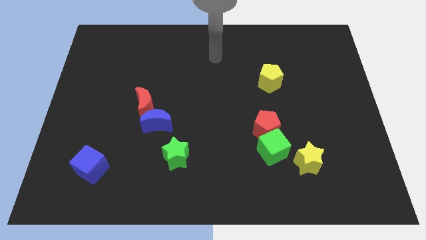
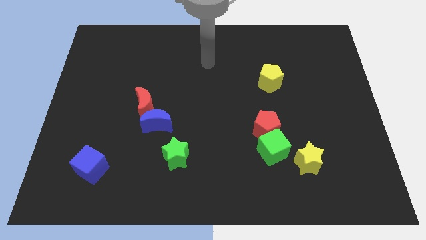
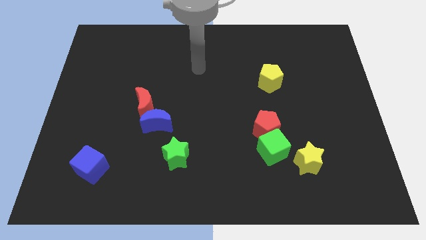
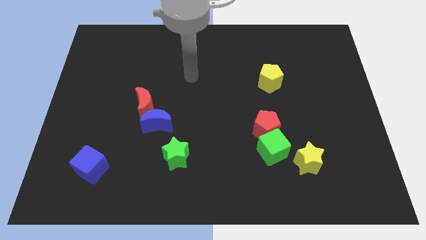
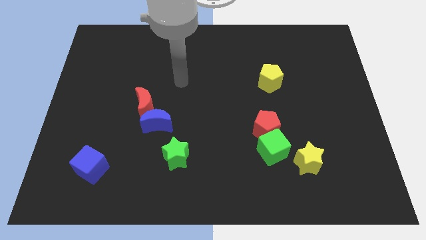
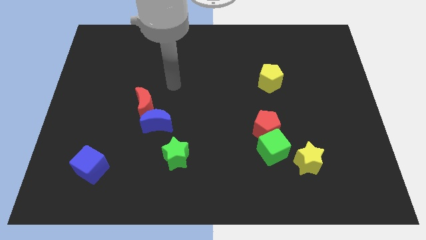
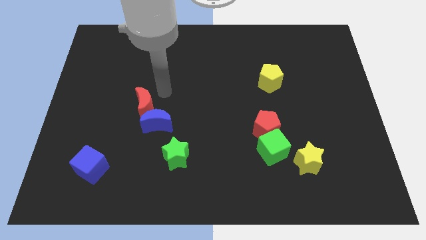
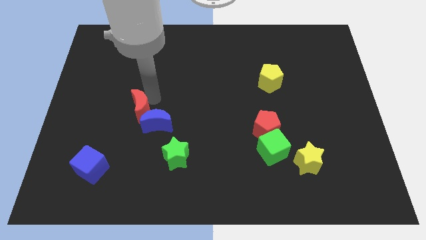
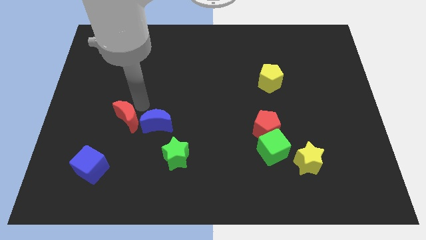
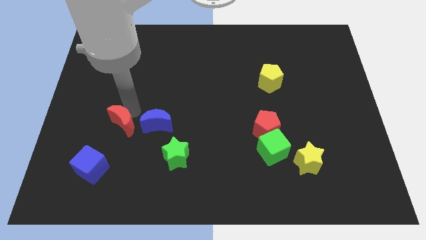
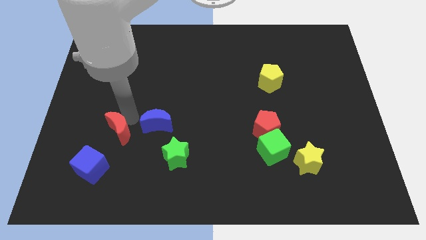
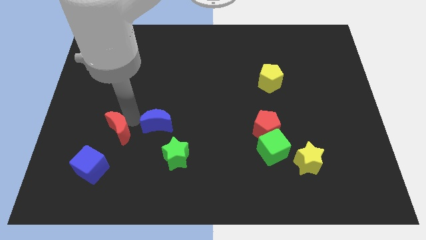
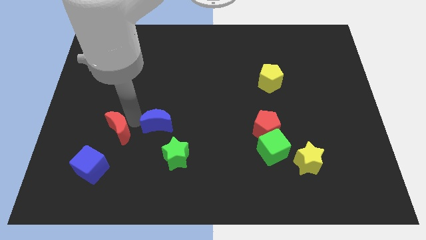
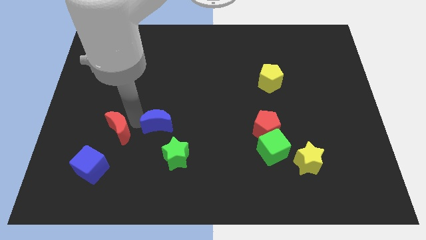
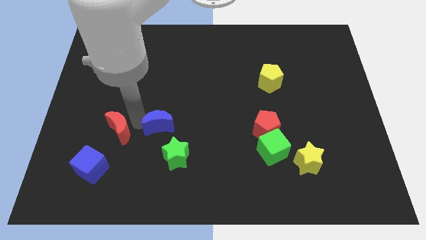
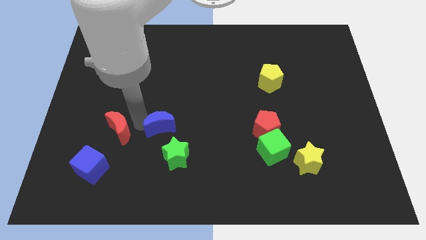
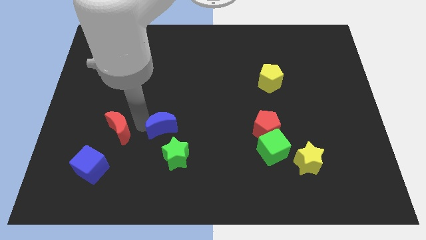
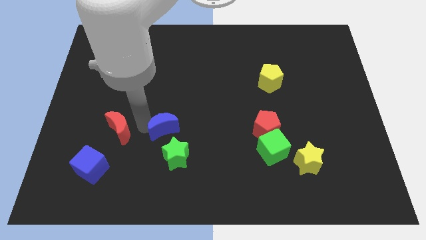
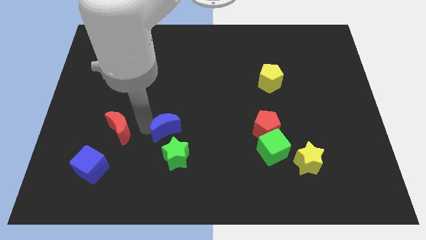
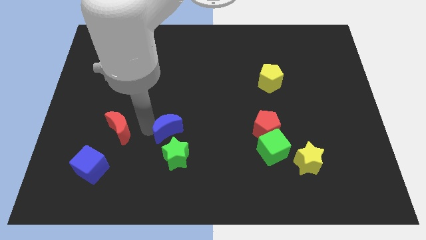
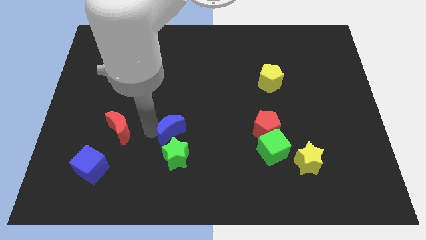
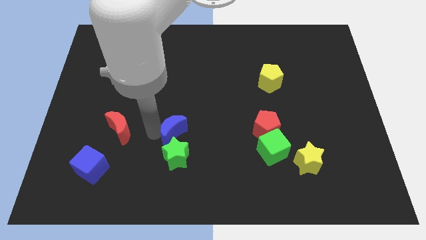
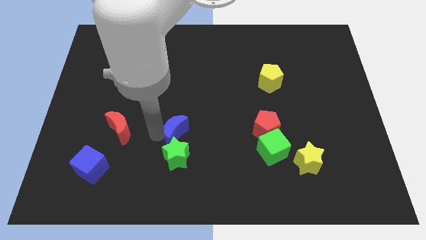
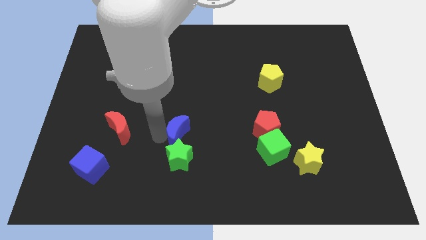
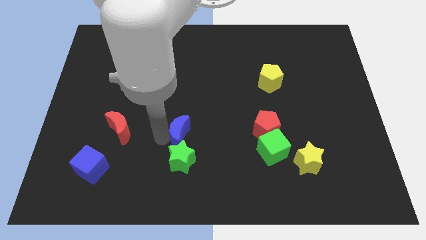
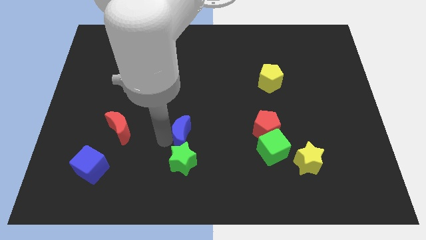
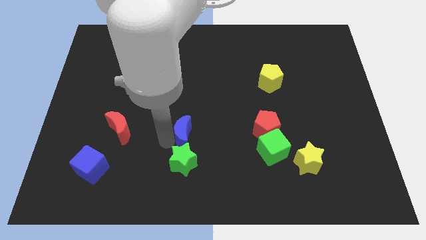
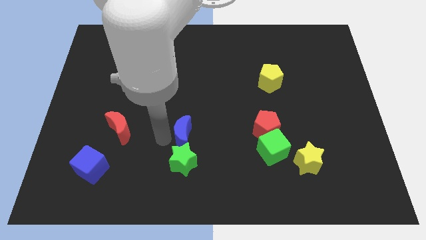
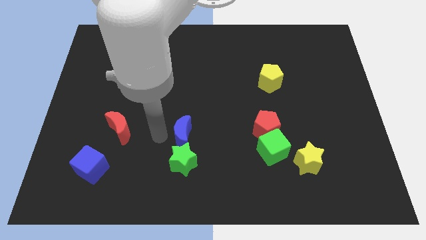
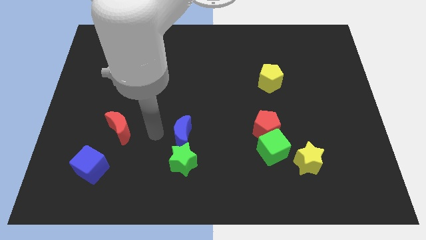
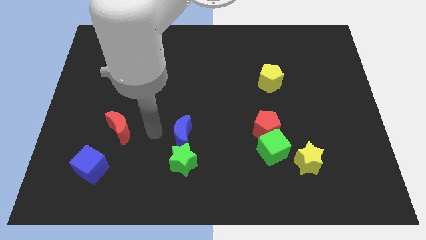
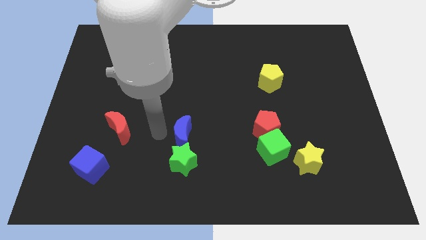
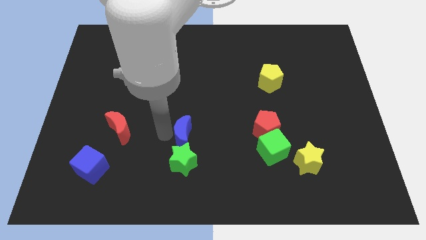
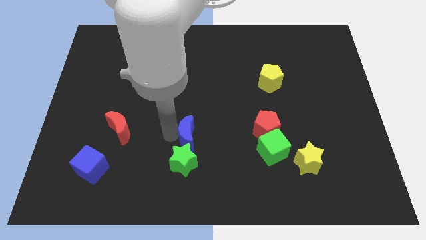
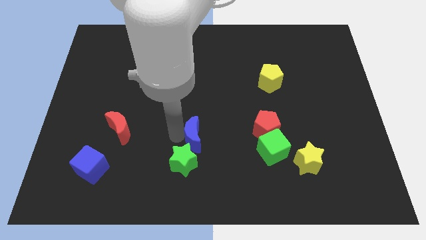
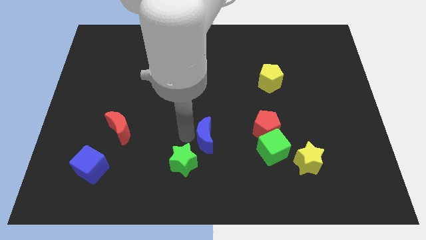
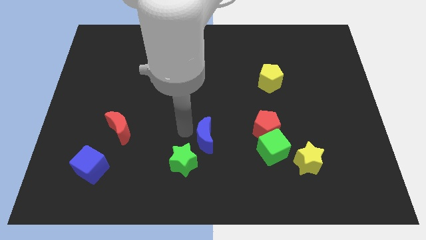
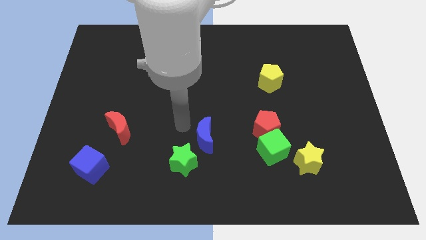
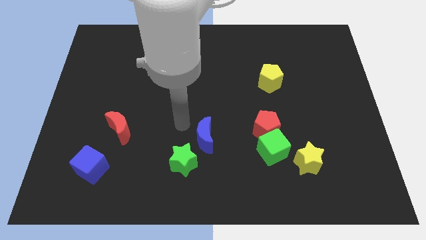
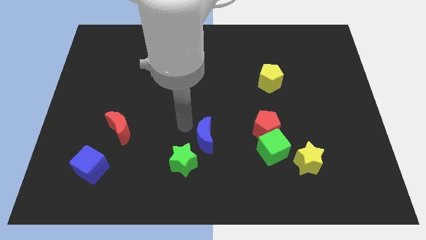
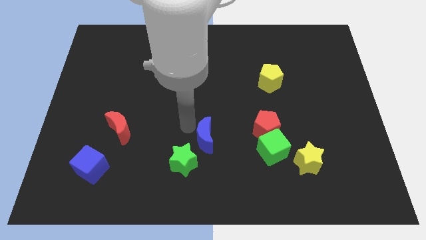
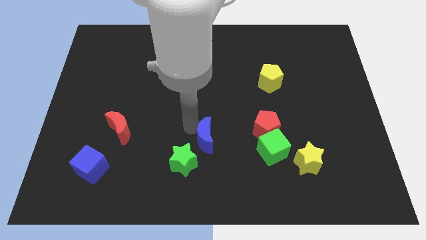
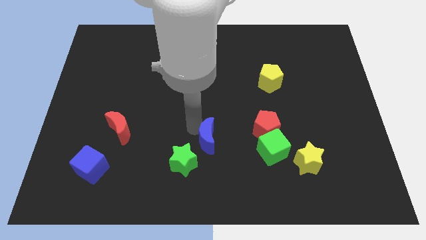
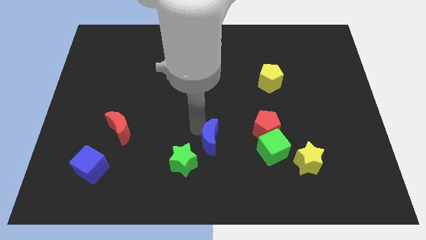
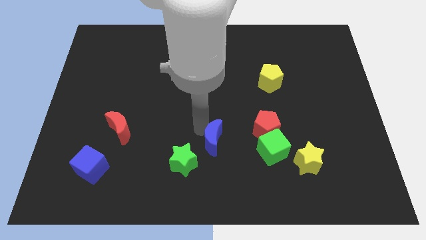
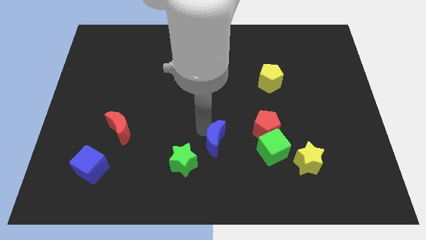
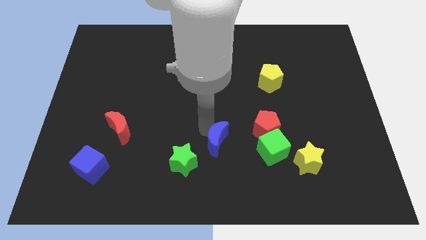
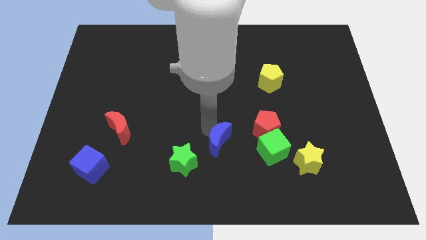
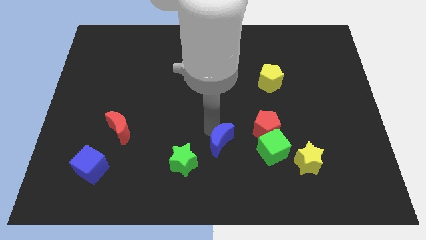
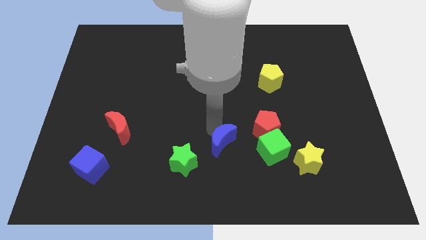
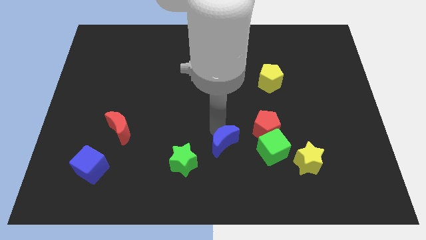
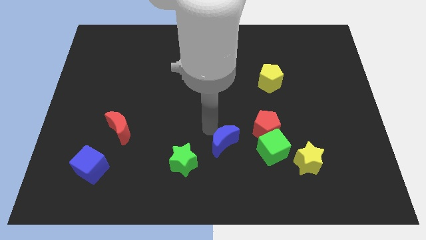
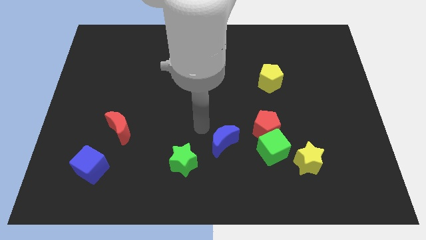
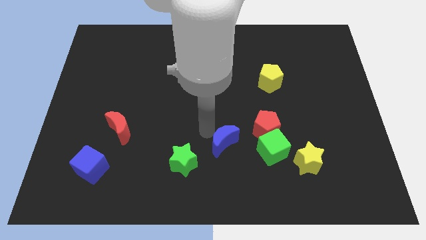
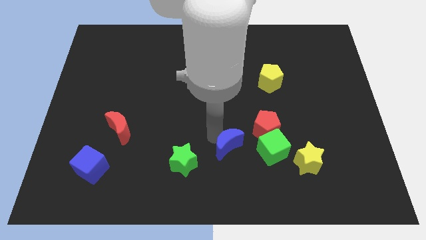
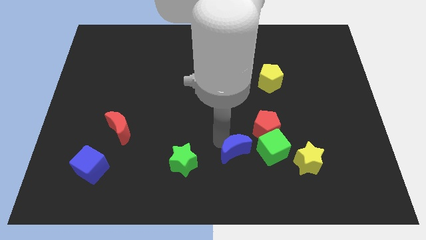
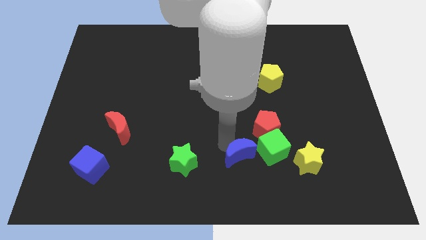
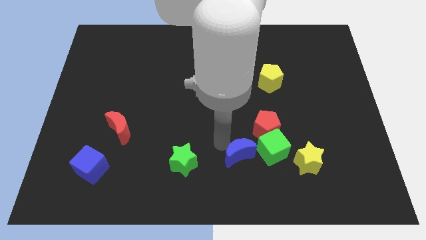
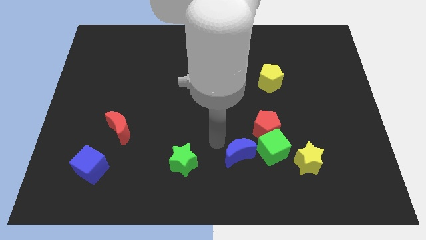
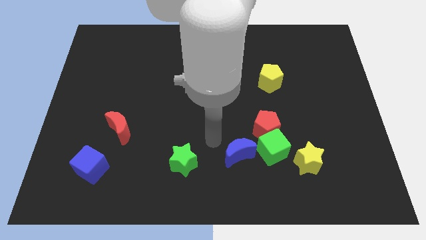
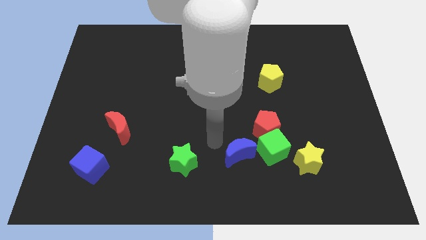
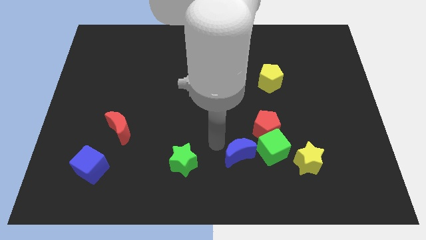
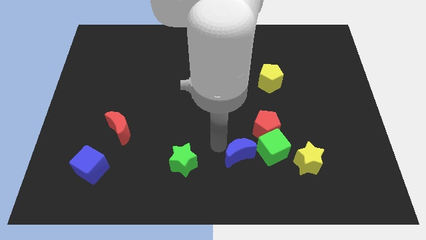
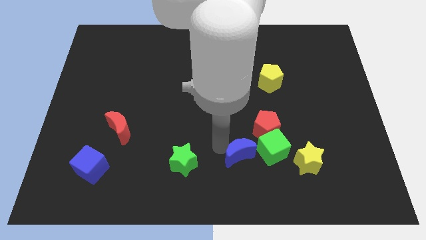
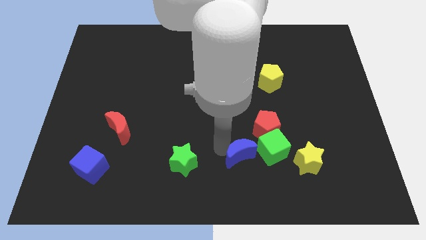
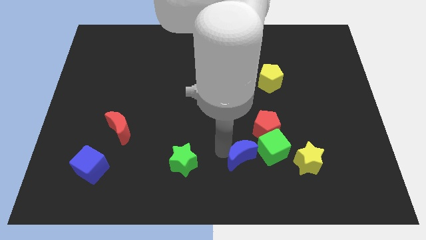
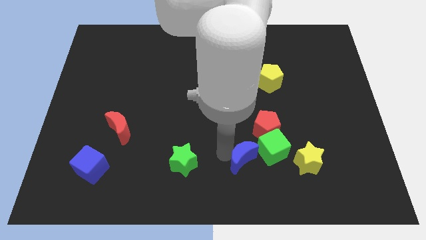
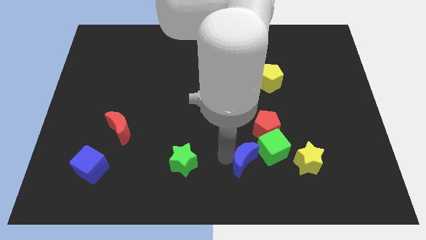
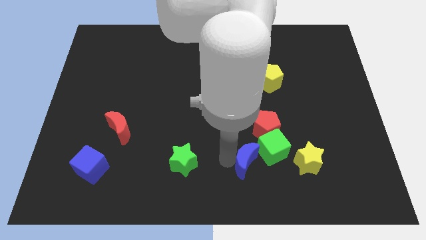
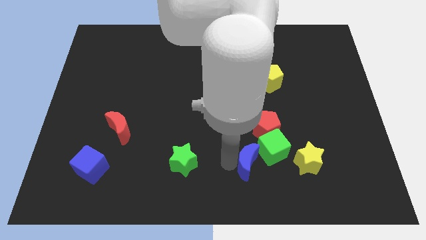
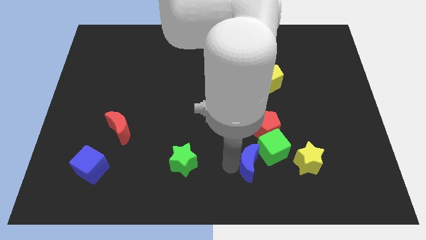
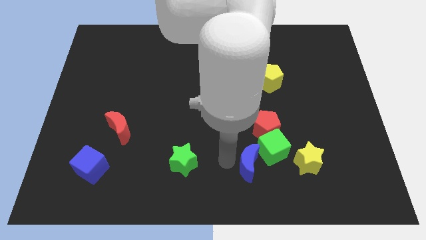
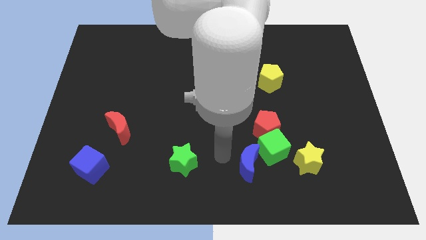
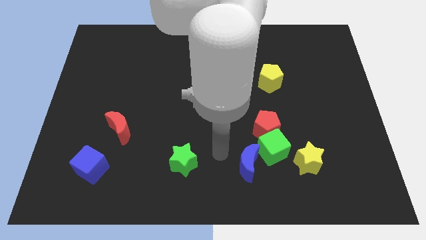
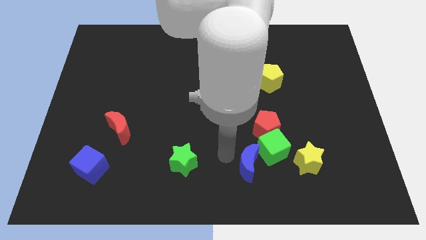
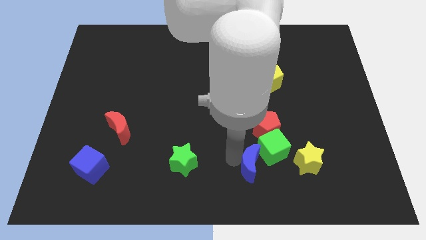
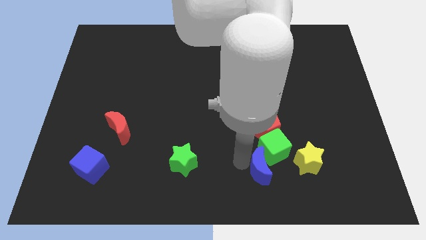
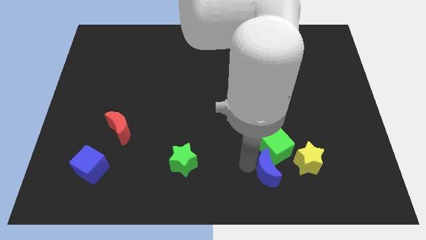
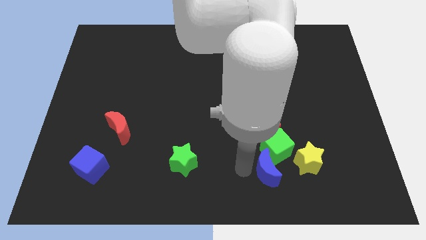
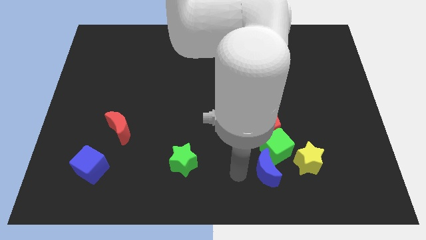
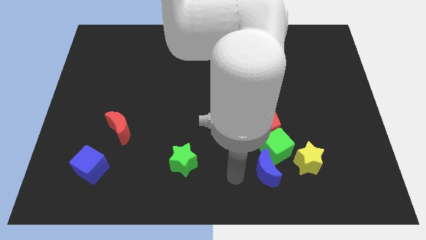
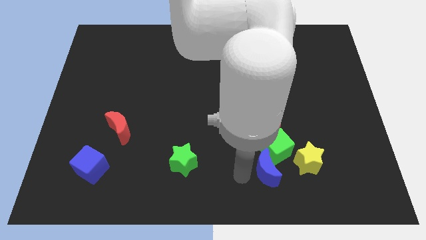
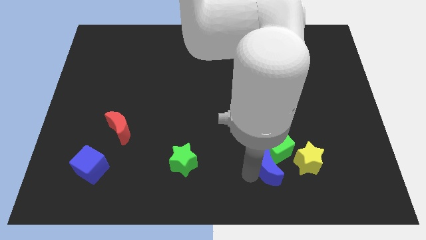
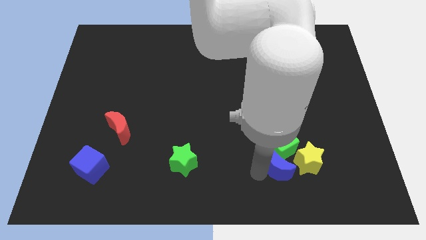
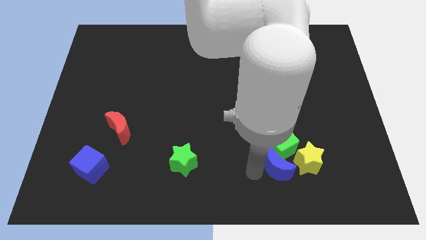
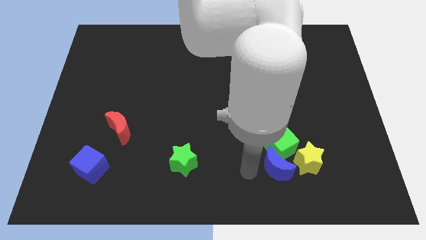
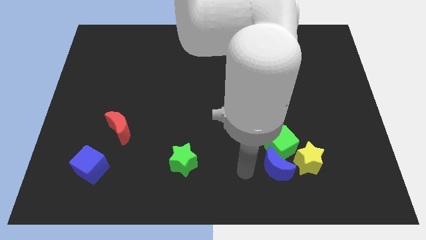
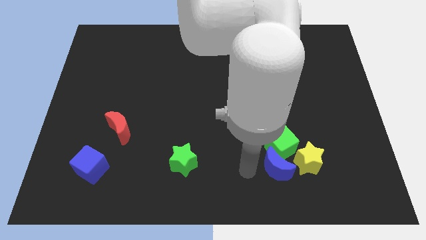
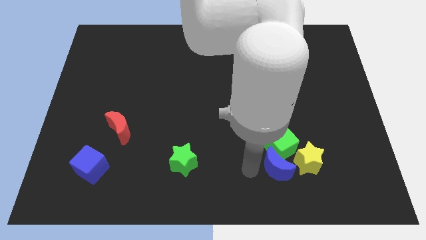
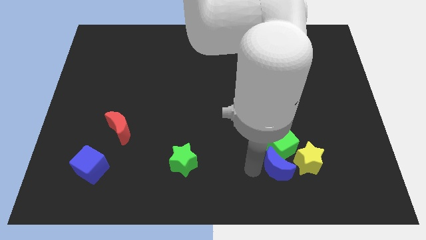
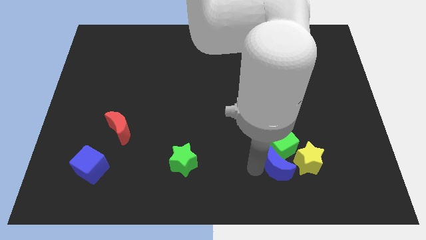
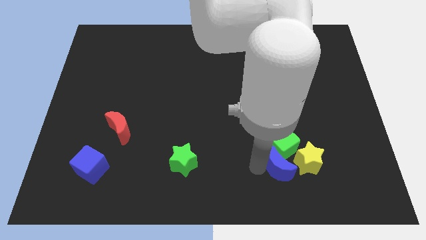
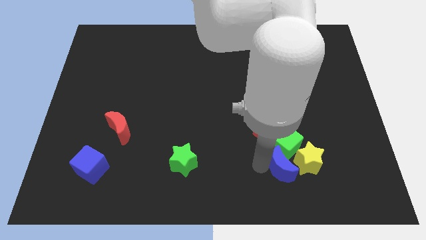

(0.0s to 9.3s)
put the blue moon next to the yellow star
